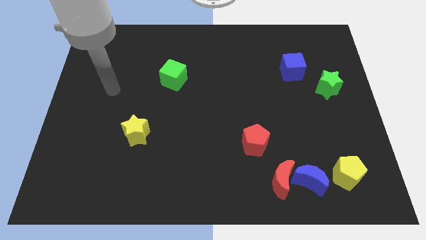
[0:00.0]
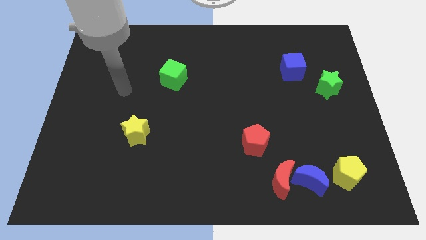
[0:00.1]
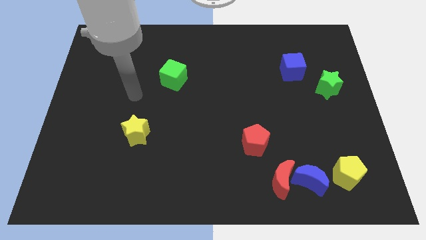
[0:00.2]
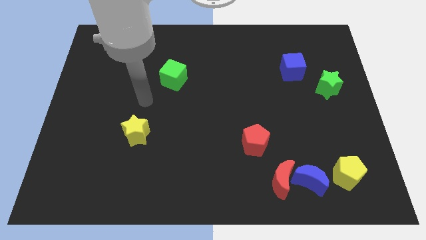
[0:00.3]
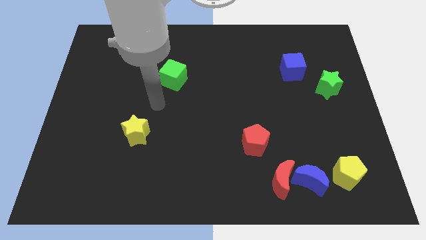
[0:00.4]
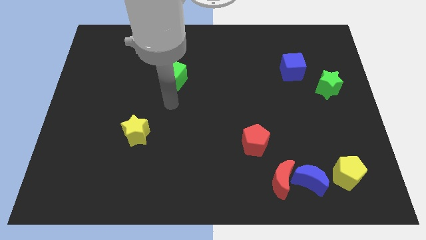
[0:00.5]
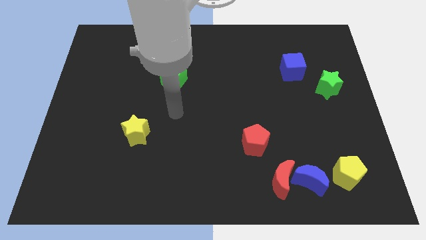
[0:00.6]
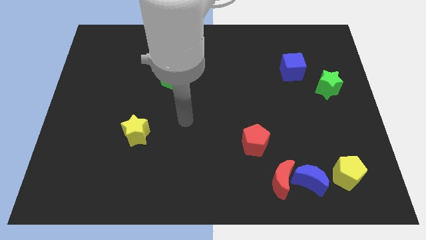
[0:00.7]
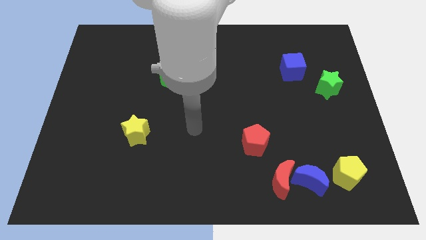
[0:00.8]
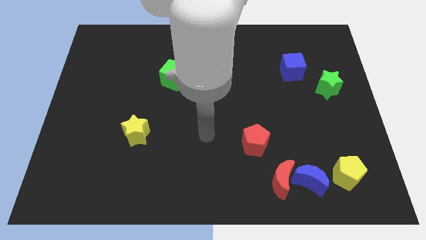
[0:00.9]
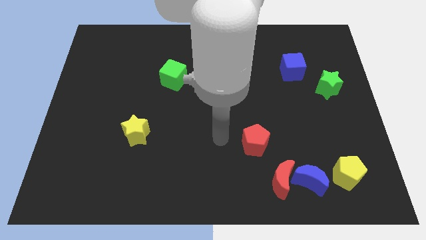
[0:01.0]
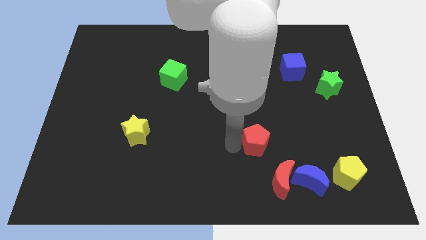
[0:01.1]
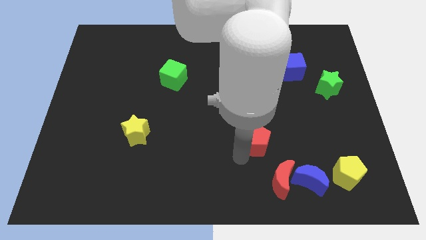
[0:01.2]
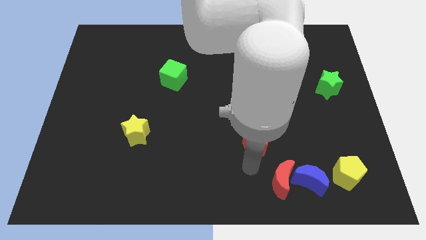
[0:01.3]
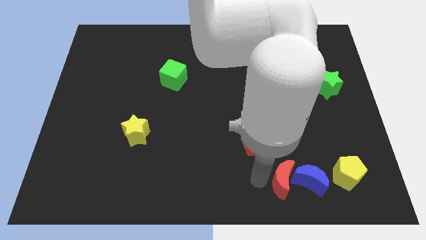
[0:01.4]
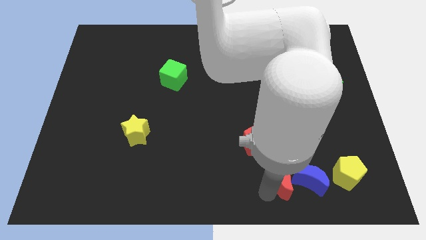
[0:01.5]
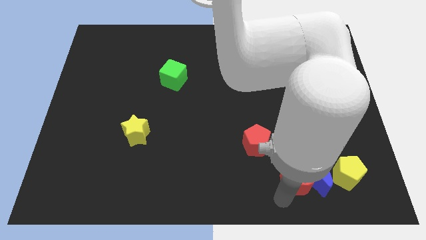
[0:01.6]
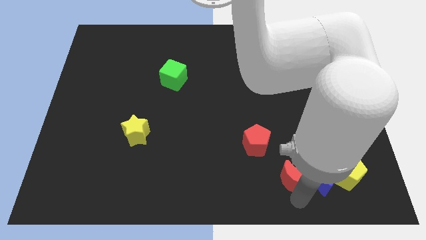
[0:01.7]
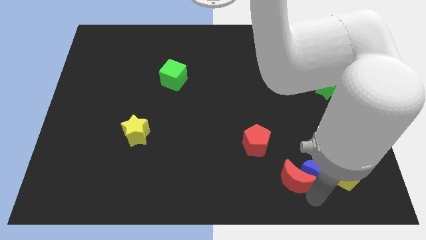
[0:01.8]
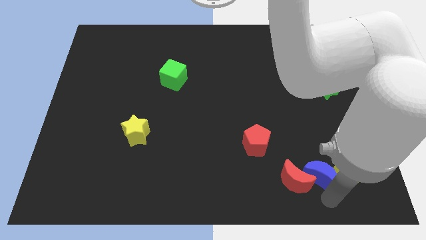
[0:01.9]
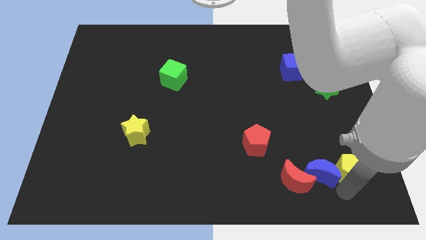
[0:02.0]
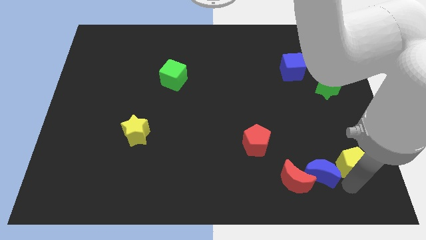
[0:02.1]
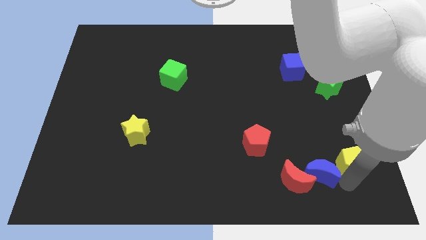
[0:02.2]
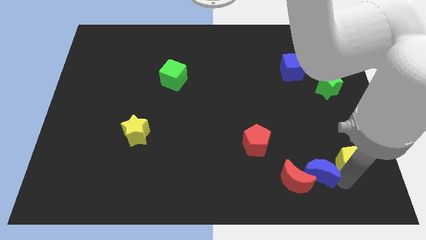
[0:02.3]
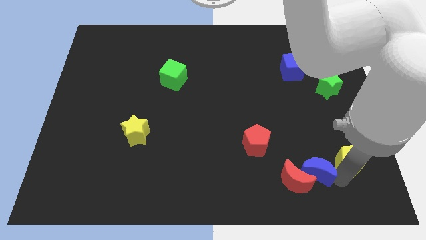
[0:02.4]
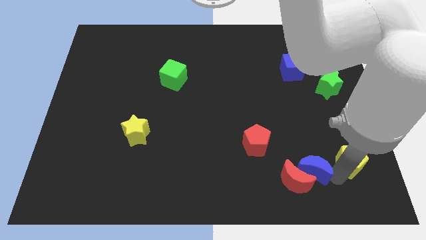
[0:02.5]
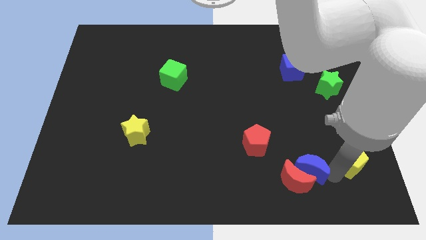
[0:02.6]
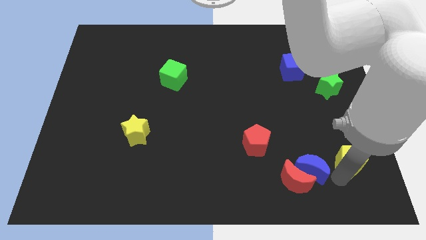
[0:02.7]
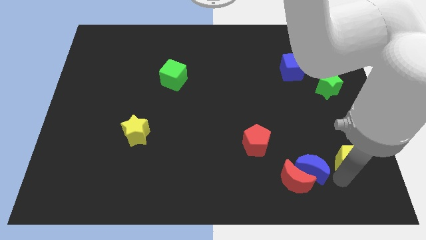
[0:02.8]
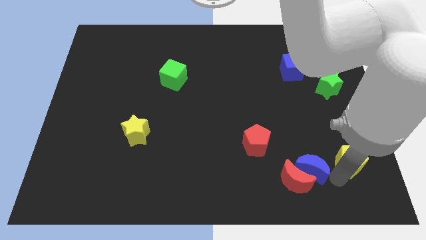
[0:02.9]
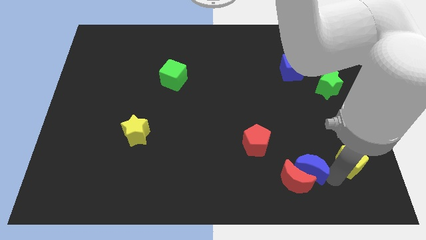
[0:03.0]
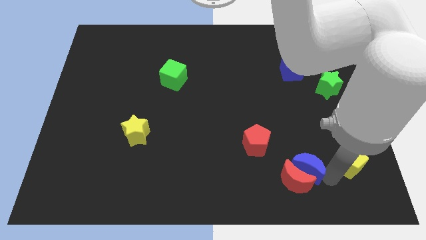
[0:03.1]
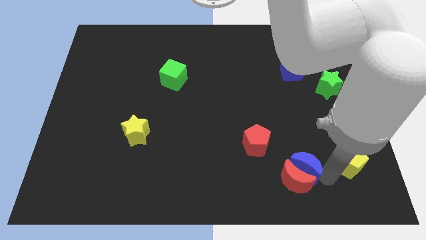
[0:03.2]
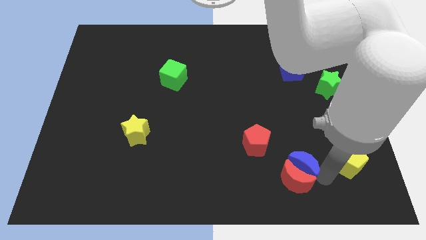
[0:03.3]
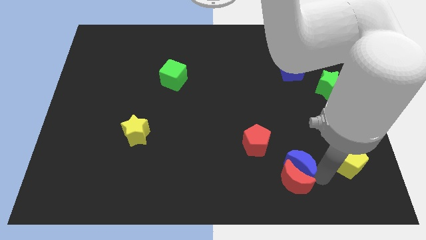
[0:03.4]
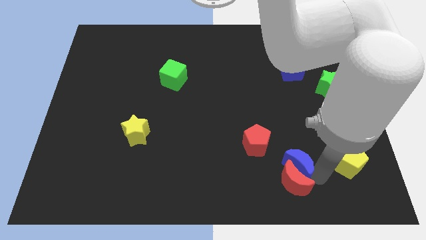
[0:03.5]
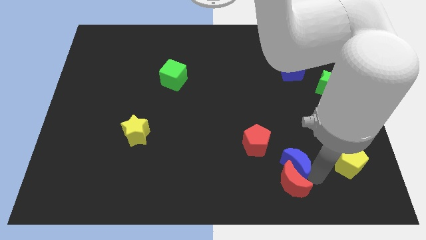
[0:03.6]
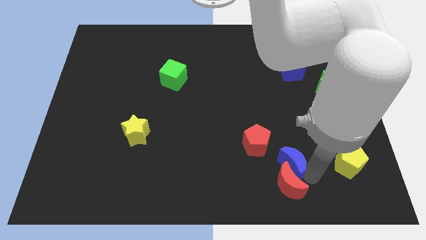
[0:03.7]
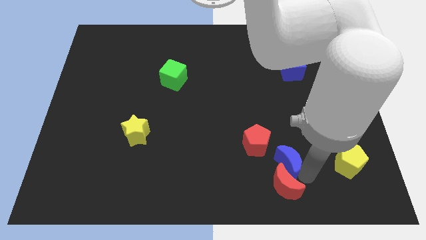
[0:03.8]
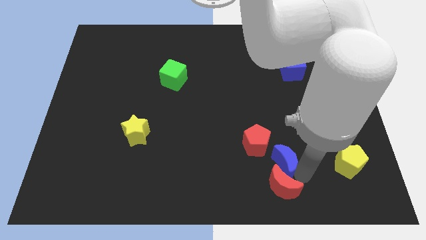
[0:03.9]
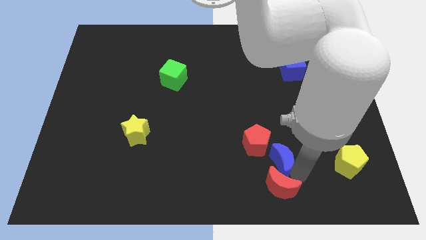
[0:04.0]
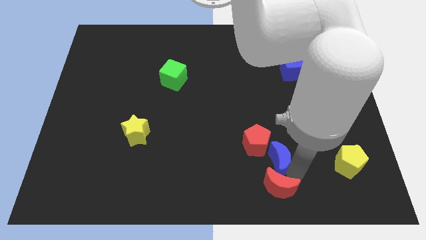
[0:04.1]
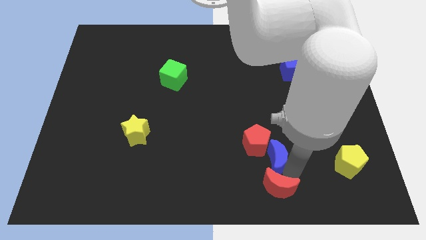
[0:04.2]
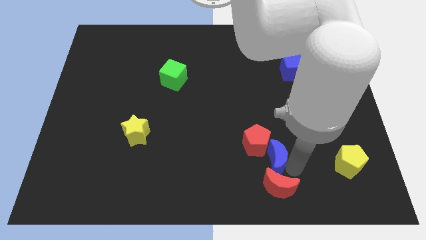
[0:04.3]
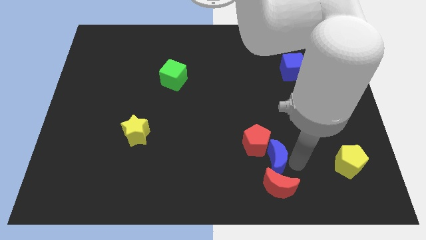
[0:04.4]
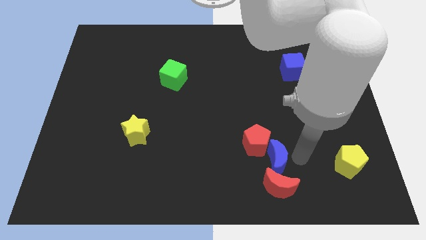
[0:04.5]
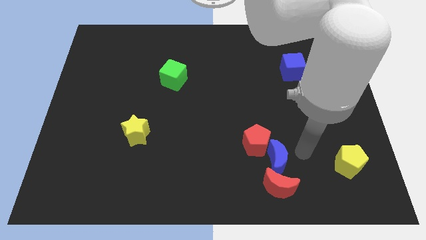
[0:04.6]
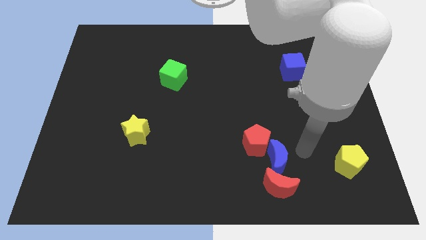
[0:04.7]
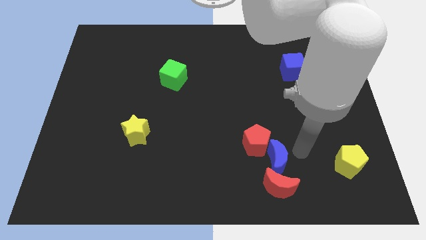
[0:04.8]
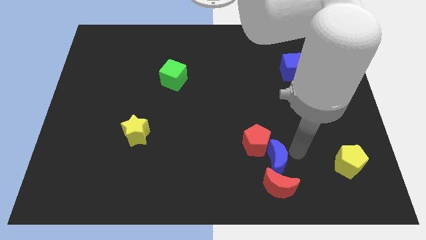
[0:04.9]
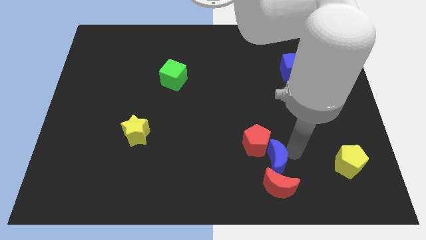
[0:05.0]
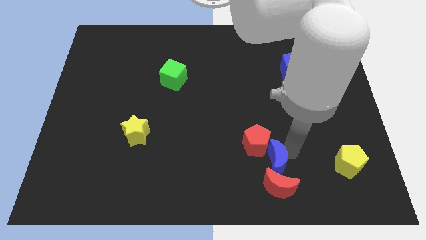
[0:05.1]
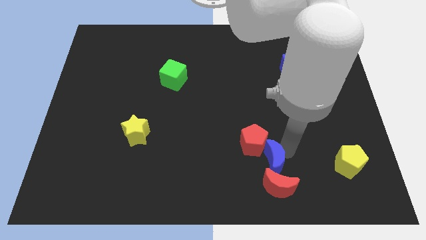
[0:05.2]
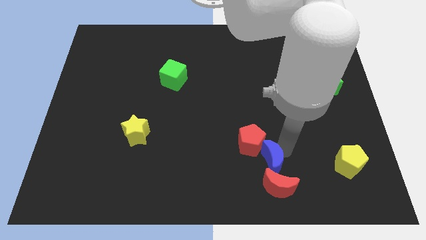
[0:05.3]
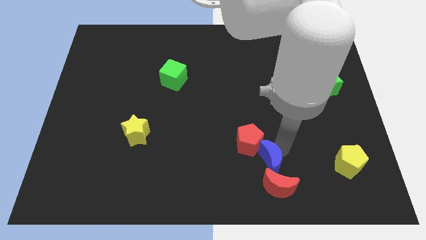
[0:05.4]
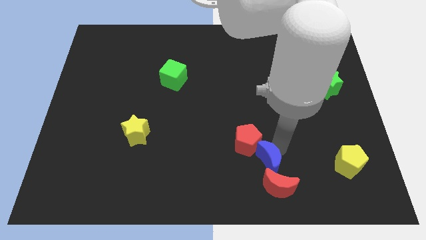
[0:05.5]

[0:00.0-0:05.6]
push the blue moon left a little bit

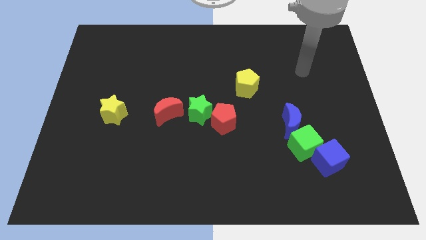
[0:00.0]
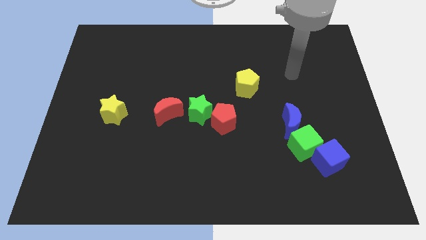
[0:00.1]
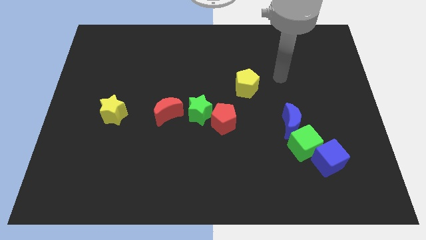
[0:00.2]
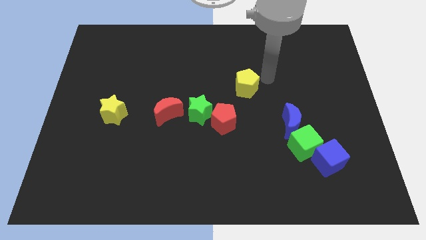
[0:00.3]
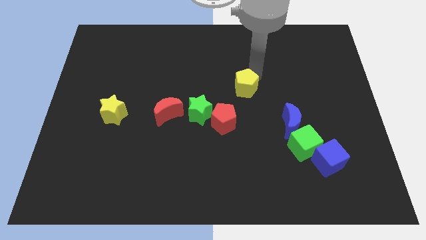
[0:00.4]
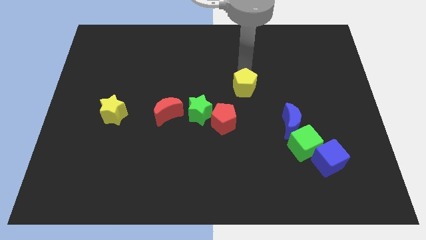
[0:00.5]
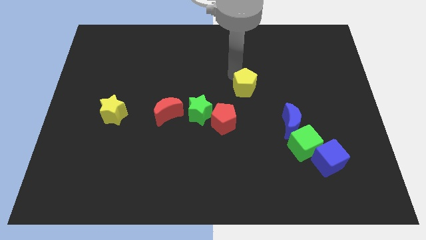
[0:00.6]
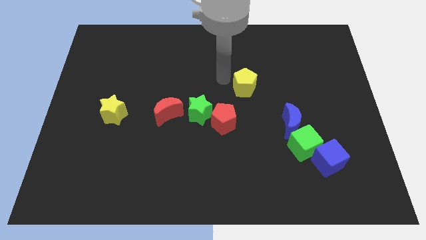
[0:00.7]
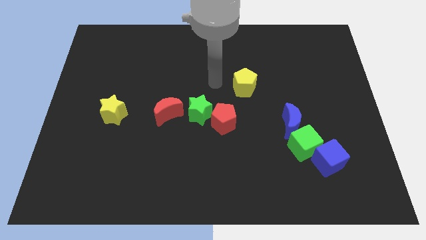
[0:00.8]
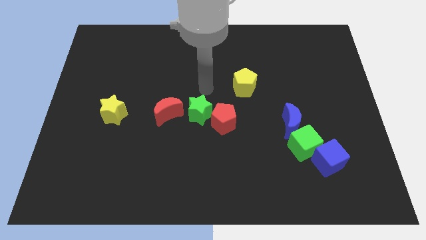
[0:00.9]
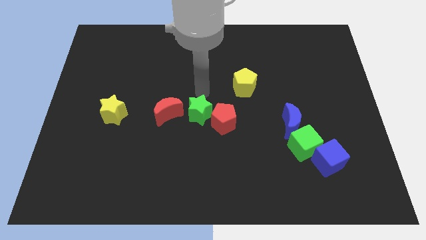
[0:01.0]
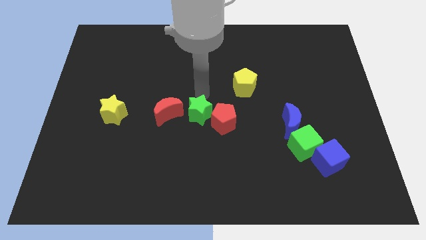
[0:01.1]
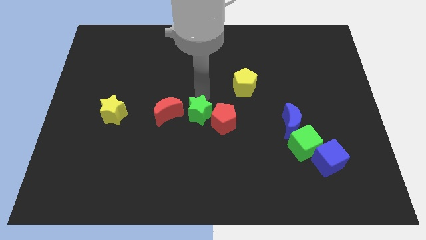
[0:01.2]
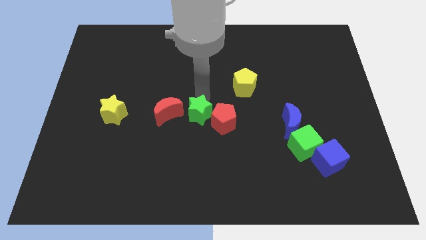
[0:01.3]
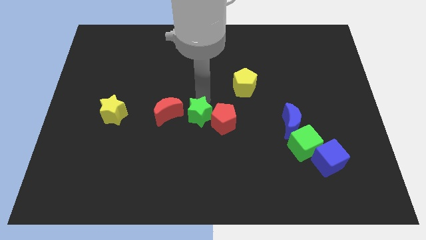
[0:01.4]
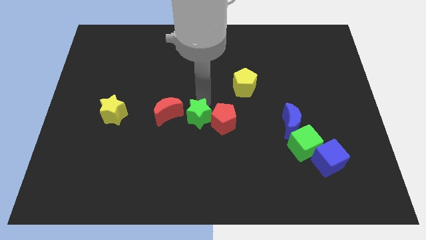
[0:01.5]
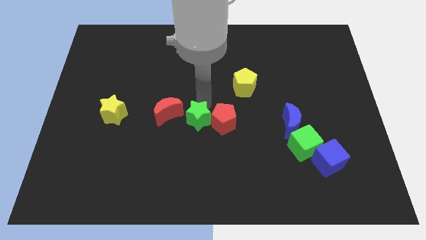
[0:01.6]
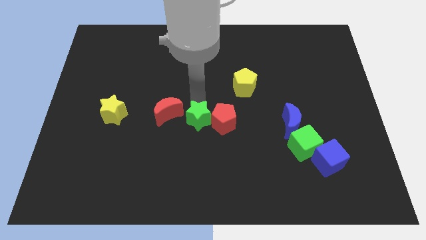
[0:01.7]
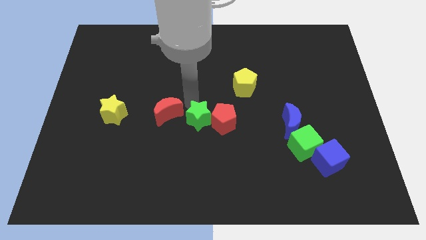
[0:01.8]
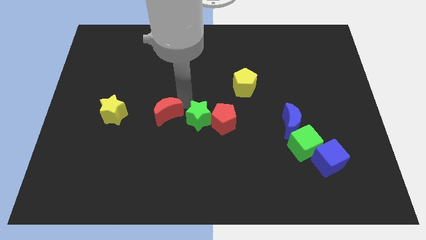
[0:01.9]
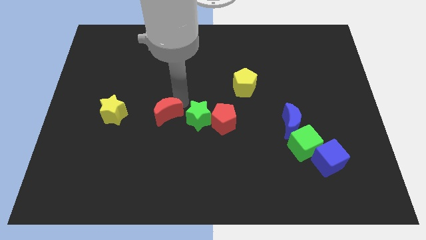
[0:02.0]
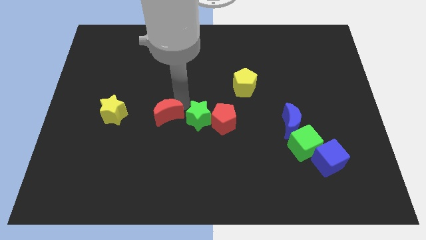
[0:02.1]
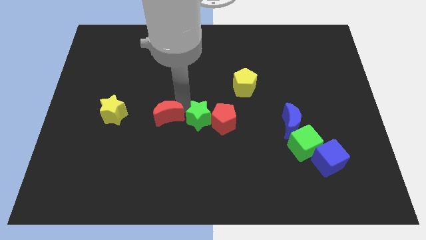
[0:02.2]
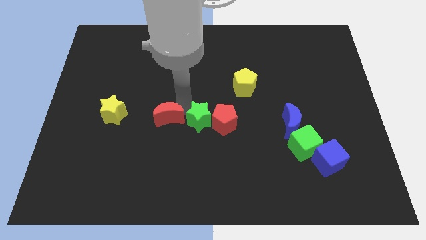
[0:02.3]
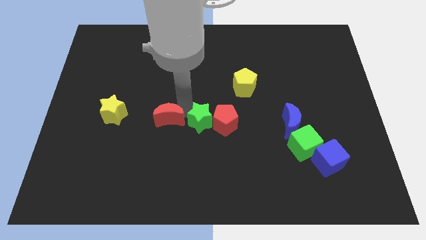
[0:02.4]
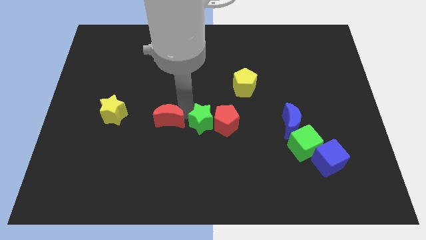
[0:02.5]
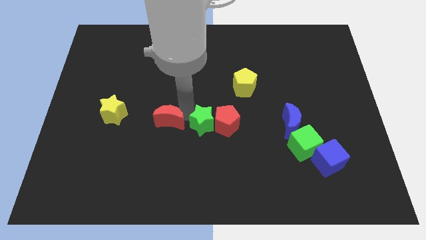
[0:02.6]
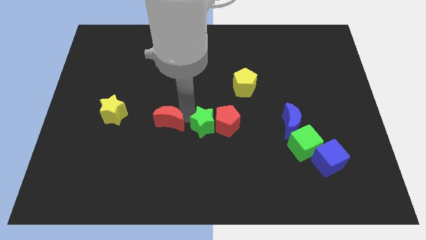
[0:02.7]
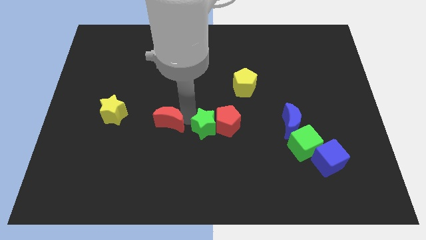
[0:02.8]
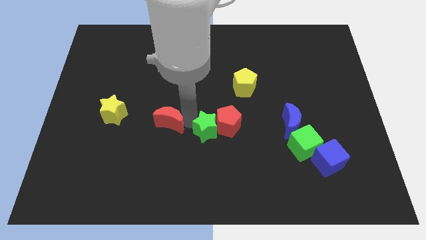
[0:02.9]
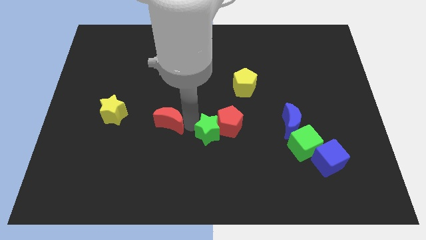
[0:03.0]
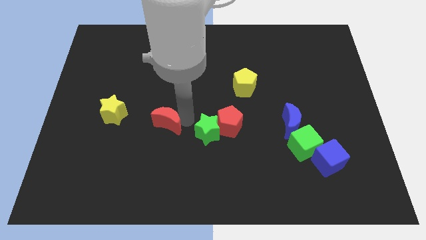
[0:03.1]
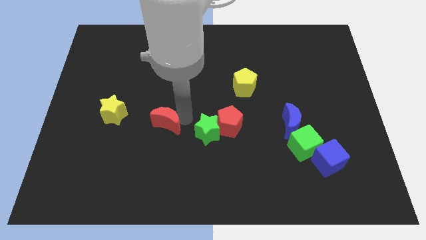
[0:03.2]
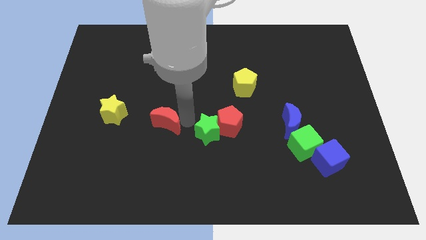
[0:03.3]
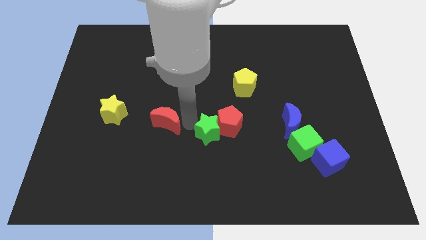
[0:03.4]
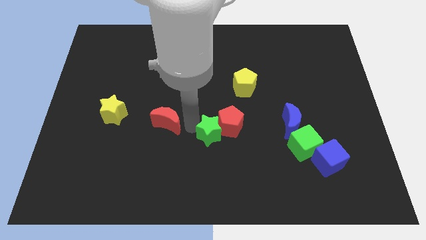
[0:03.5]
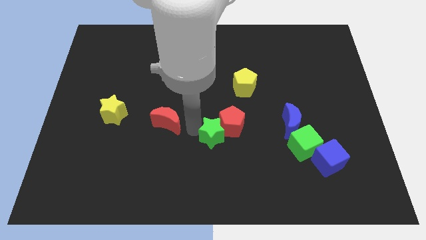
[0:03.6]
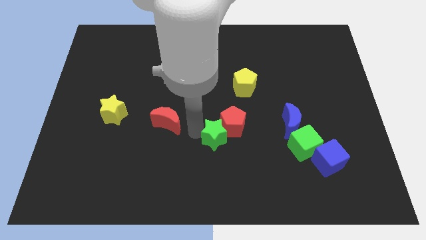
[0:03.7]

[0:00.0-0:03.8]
push the green star a little bit downwards and then right
